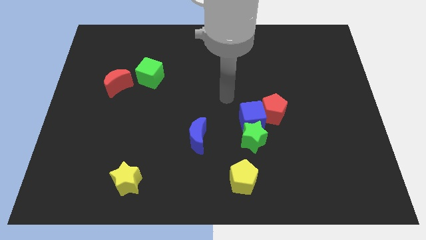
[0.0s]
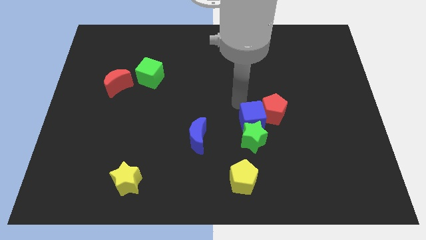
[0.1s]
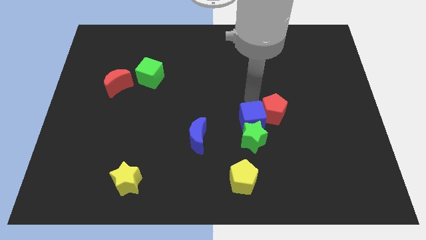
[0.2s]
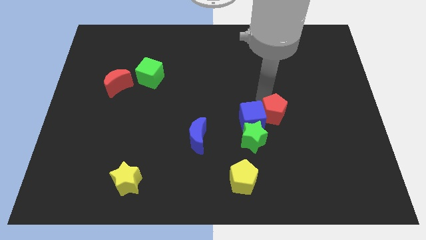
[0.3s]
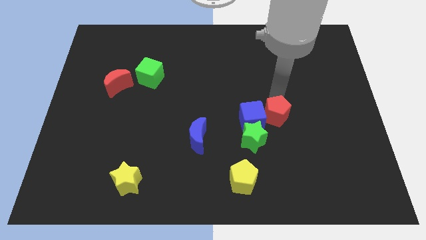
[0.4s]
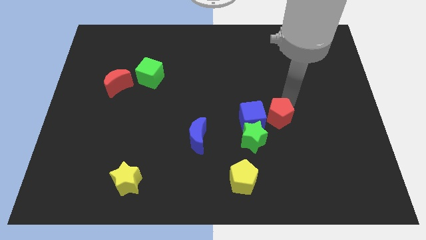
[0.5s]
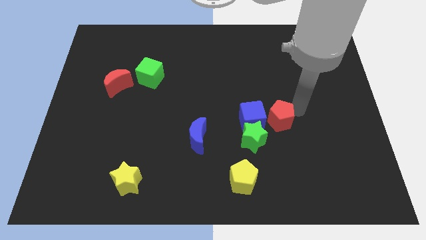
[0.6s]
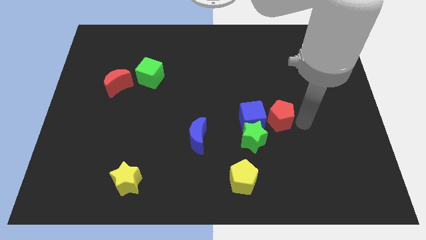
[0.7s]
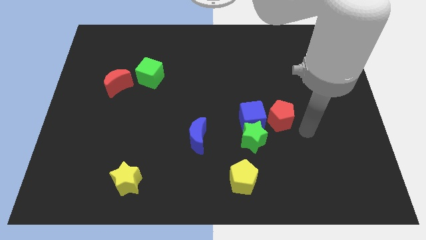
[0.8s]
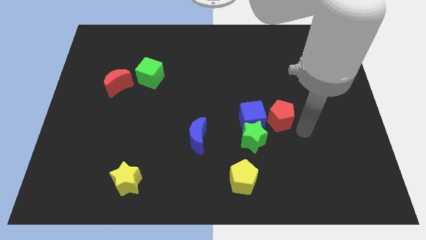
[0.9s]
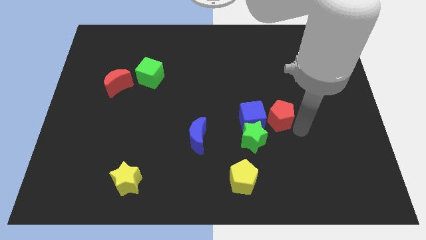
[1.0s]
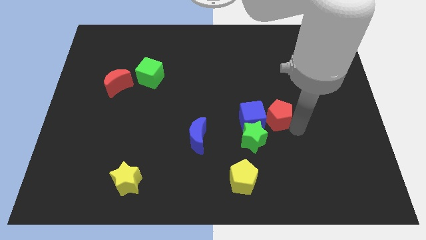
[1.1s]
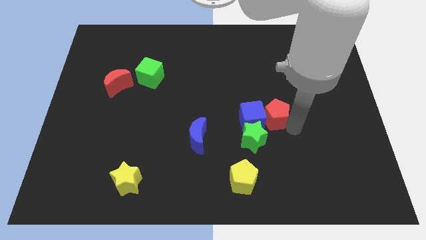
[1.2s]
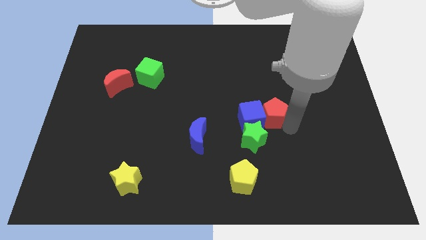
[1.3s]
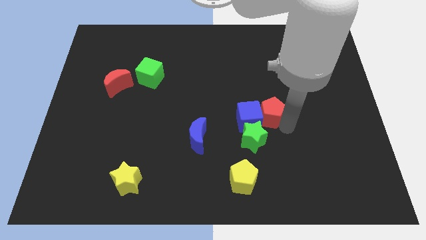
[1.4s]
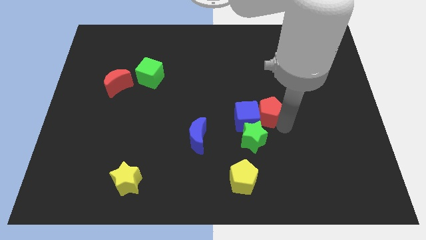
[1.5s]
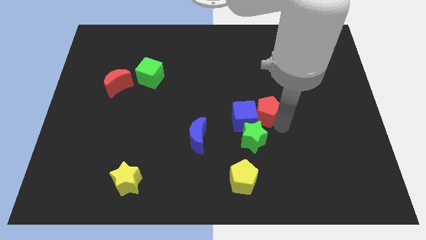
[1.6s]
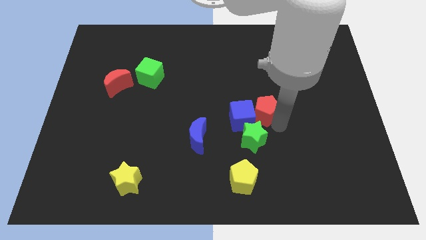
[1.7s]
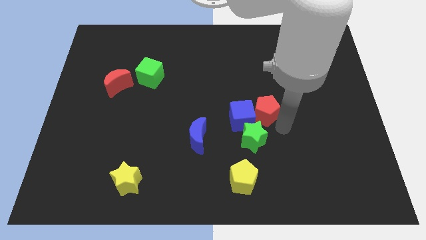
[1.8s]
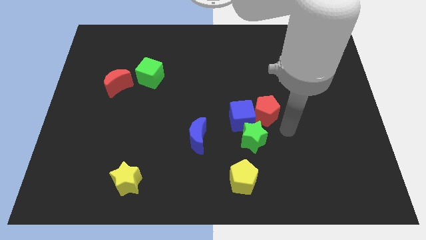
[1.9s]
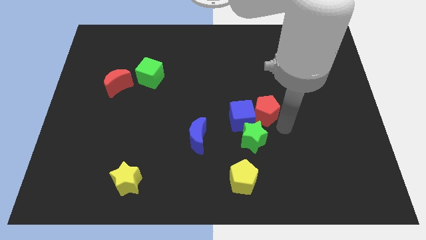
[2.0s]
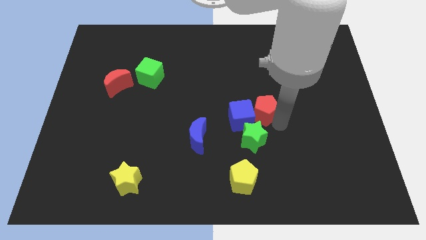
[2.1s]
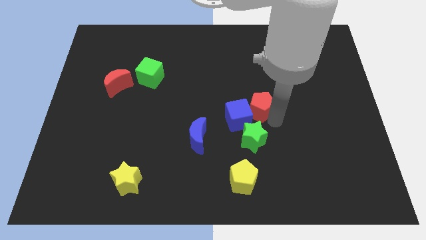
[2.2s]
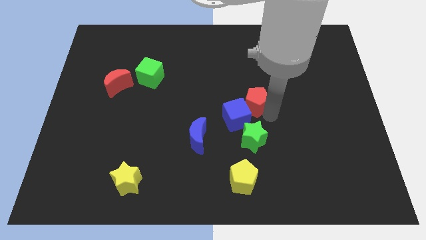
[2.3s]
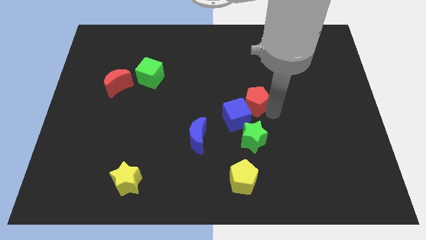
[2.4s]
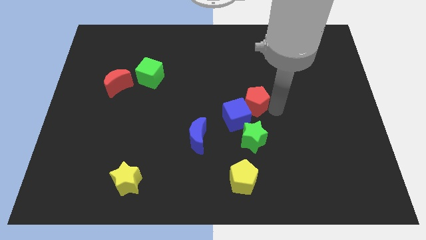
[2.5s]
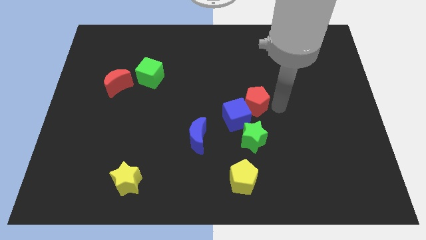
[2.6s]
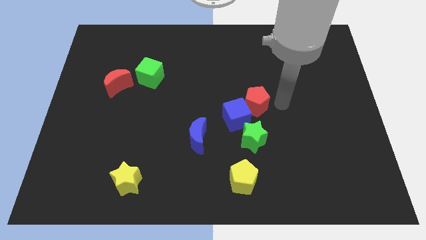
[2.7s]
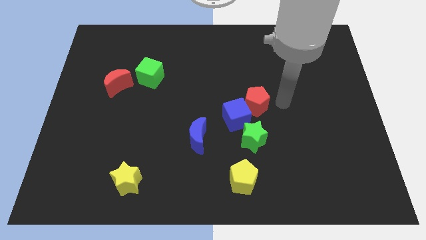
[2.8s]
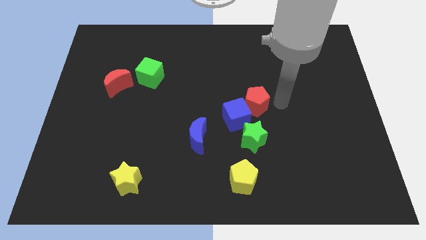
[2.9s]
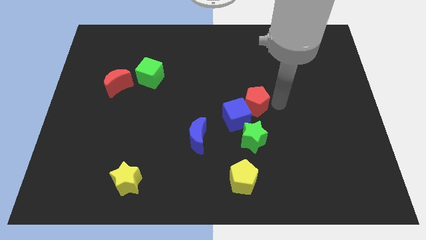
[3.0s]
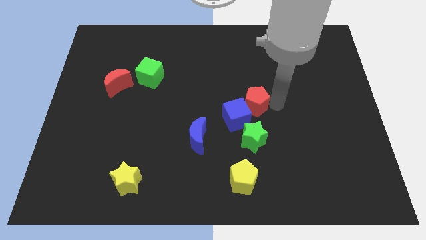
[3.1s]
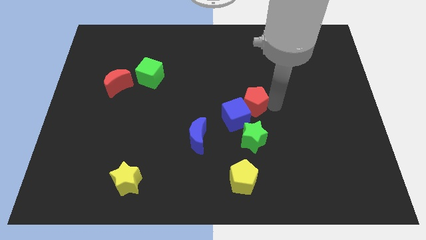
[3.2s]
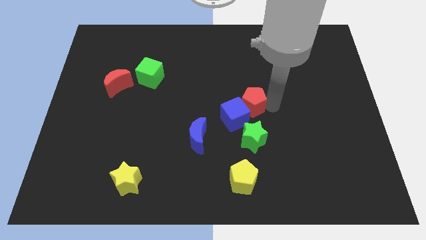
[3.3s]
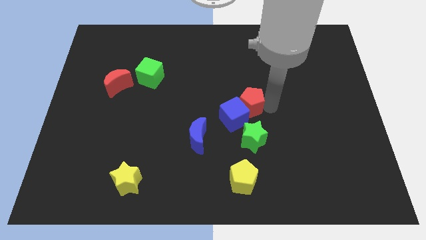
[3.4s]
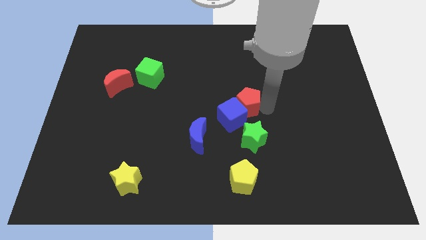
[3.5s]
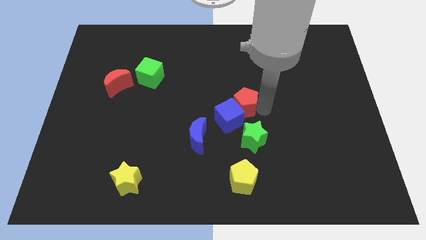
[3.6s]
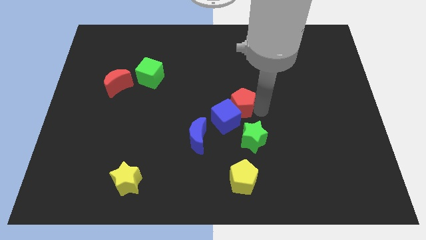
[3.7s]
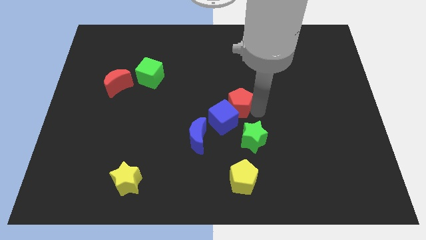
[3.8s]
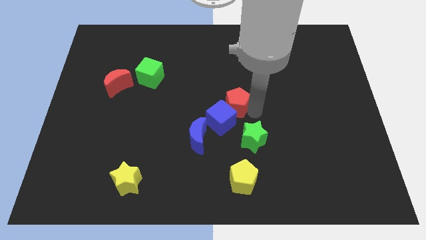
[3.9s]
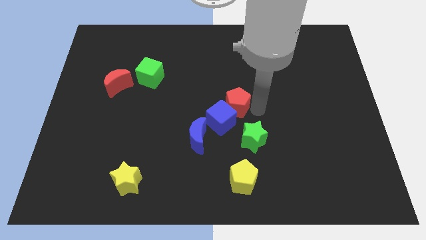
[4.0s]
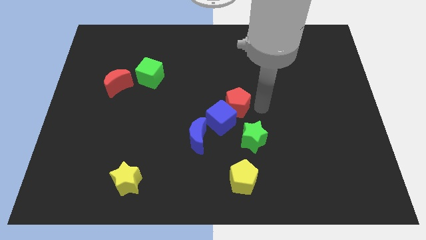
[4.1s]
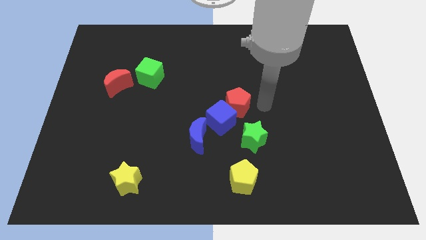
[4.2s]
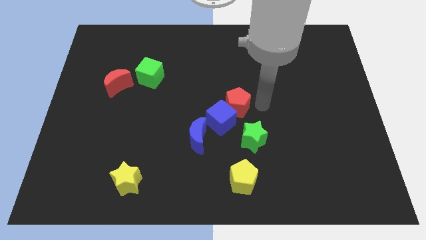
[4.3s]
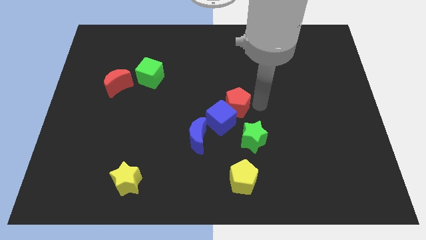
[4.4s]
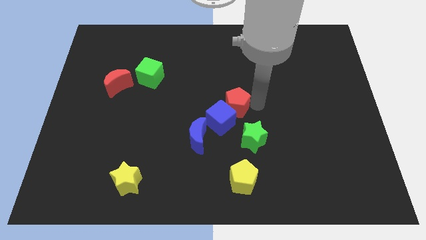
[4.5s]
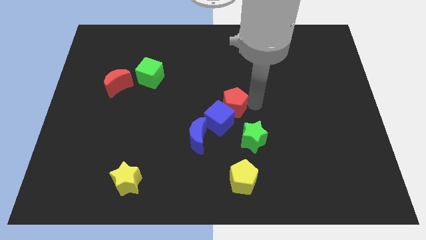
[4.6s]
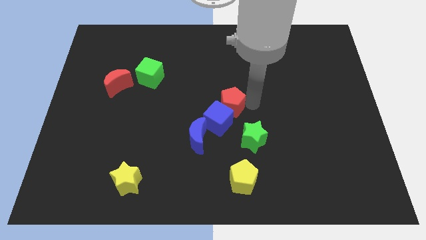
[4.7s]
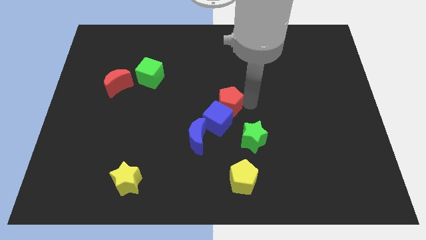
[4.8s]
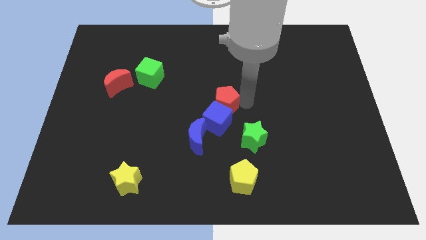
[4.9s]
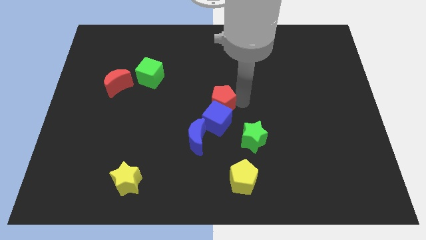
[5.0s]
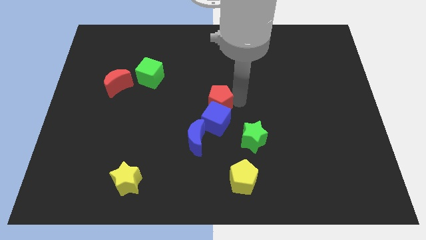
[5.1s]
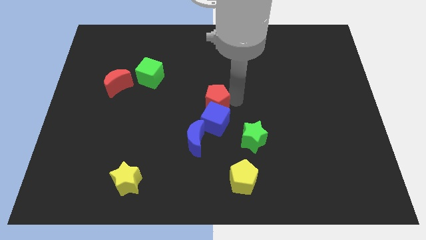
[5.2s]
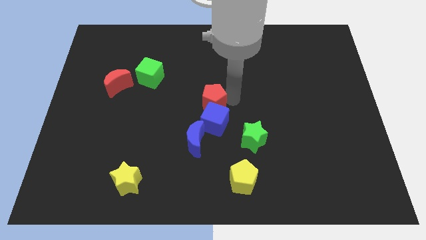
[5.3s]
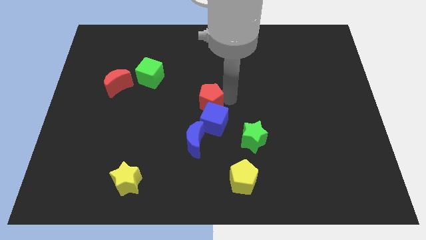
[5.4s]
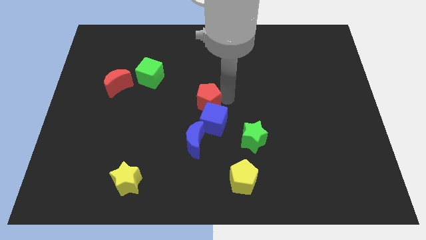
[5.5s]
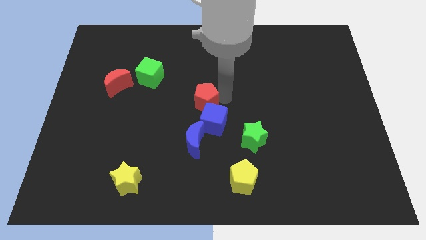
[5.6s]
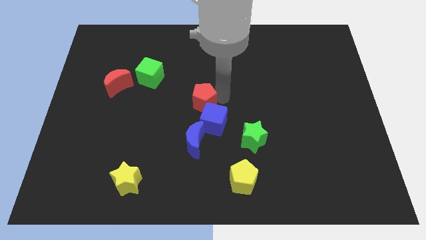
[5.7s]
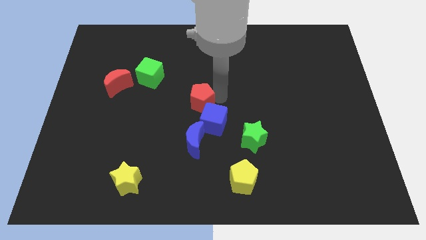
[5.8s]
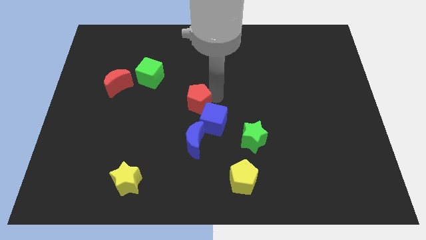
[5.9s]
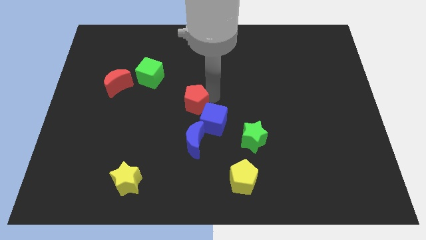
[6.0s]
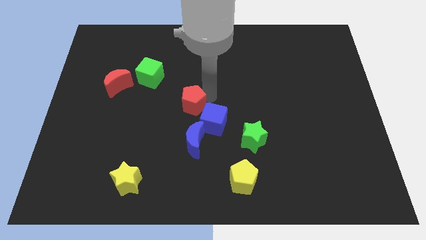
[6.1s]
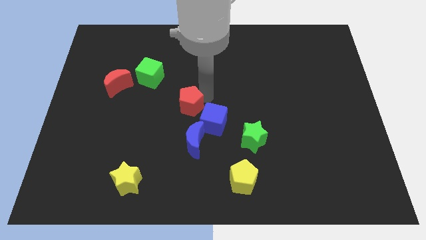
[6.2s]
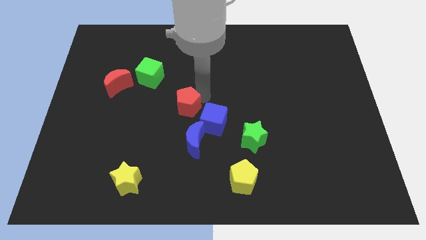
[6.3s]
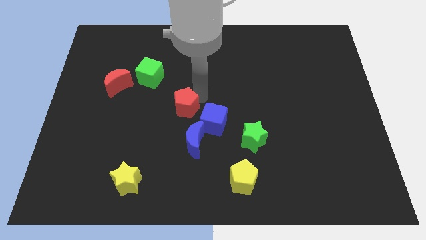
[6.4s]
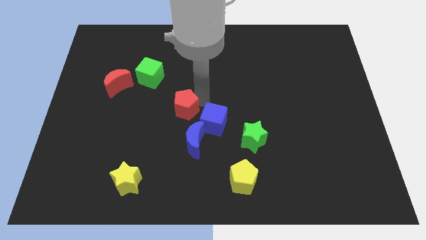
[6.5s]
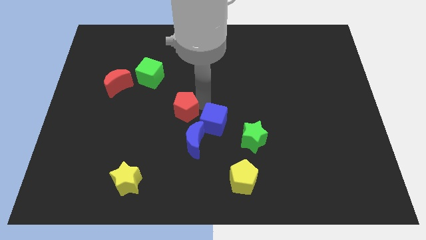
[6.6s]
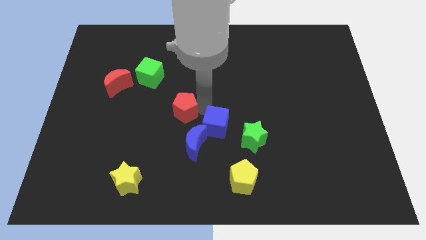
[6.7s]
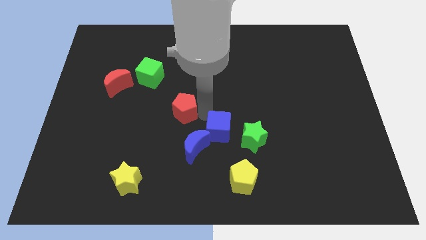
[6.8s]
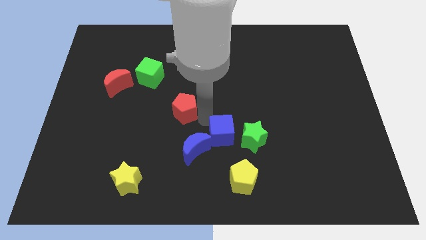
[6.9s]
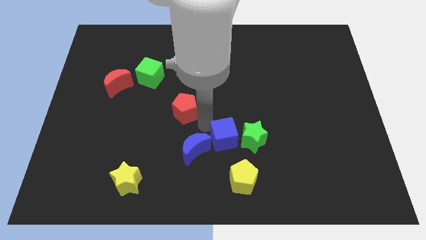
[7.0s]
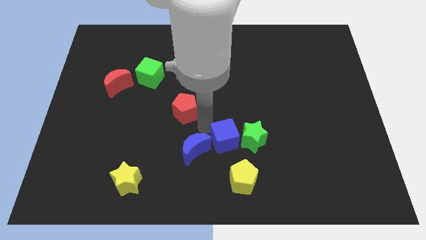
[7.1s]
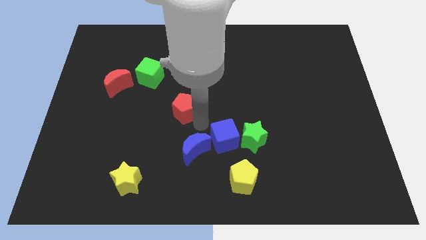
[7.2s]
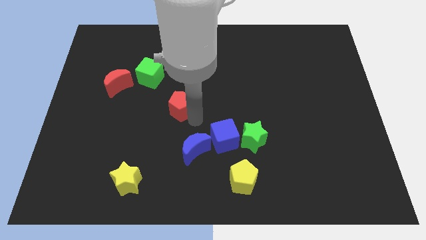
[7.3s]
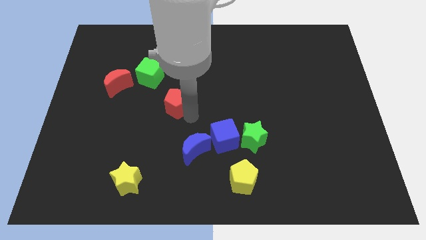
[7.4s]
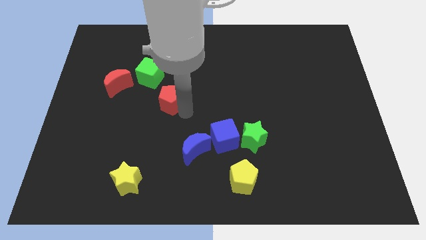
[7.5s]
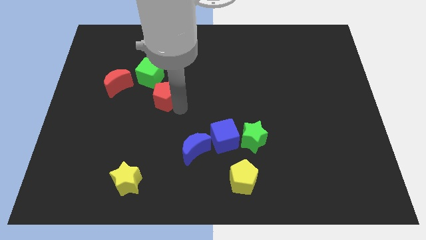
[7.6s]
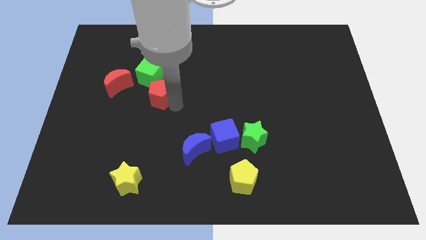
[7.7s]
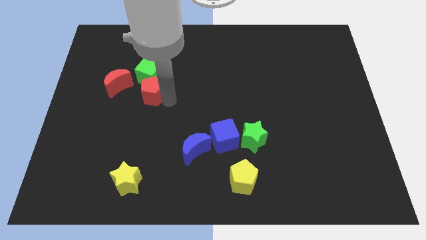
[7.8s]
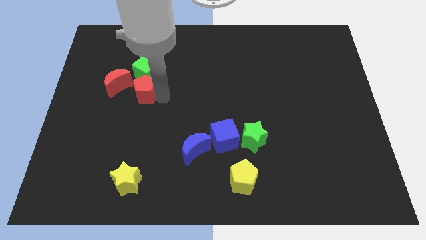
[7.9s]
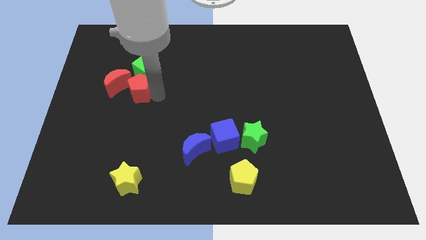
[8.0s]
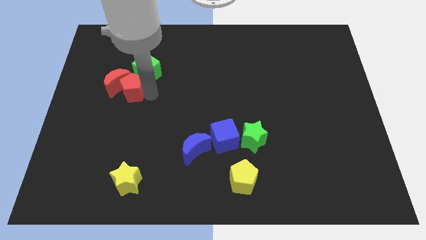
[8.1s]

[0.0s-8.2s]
put the red pentagon to the red moon
